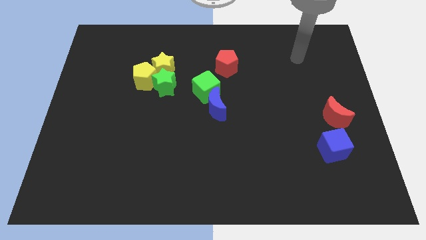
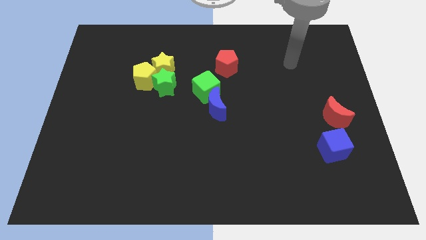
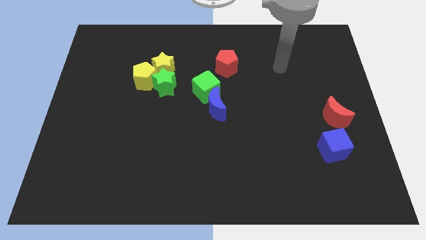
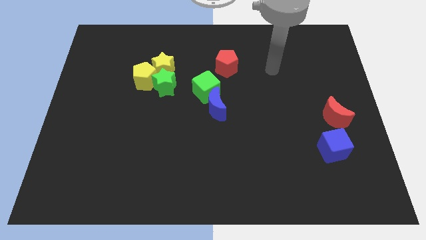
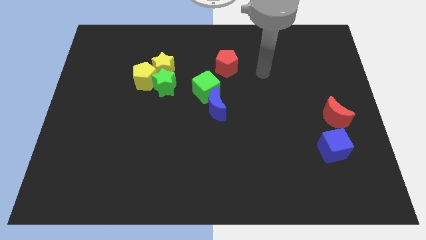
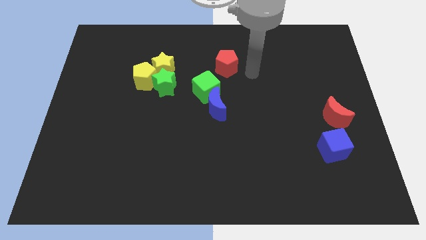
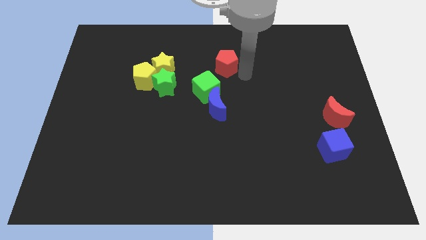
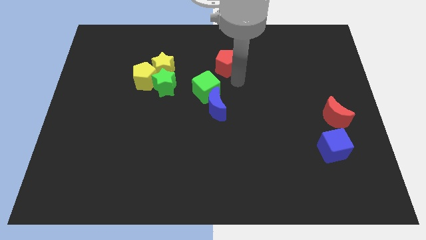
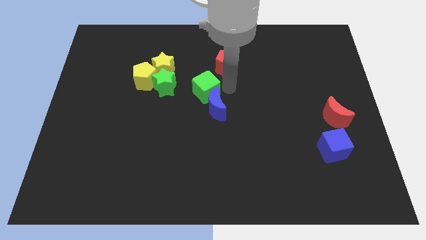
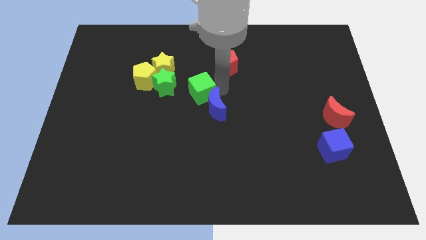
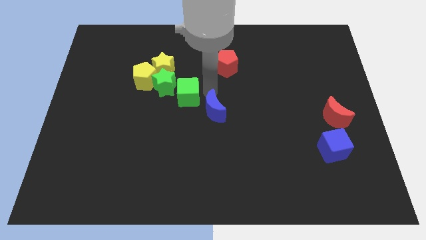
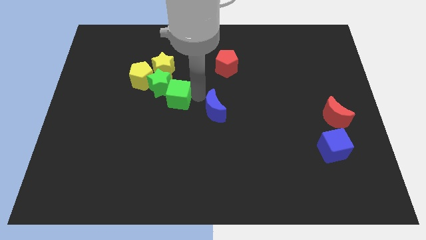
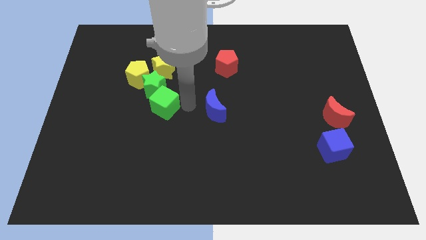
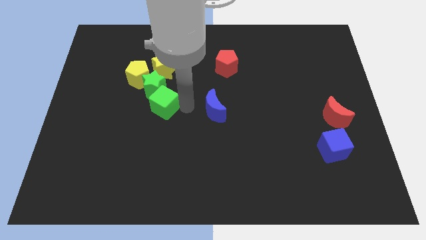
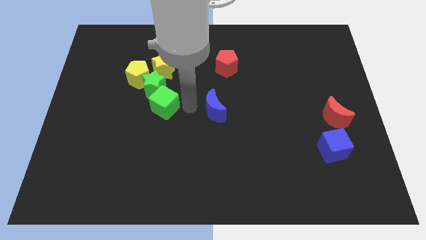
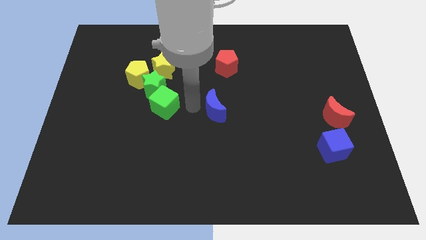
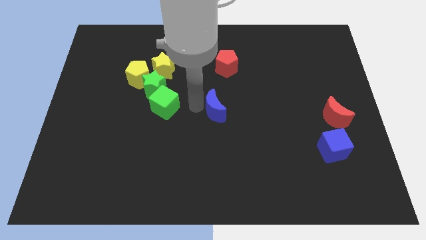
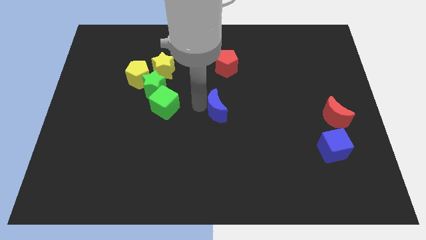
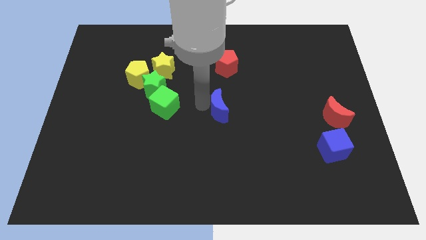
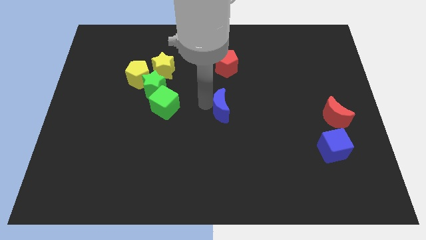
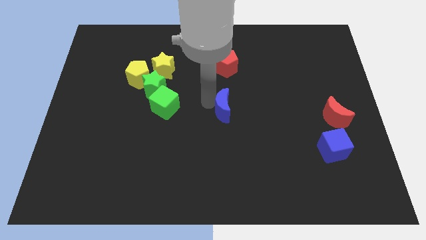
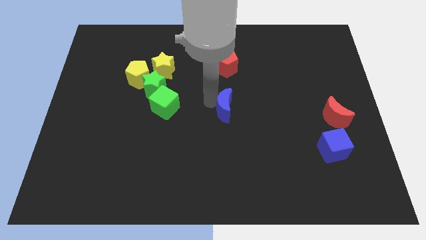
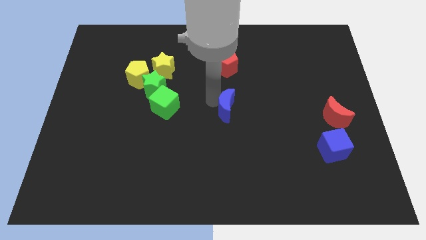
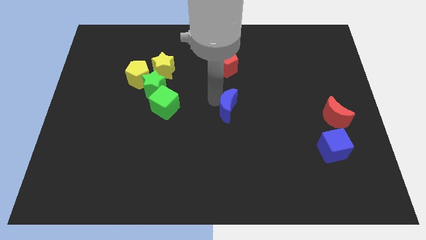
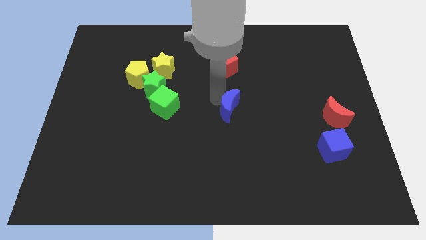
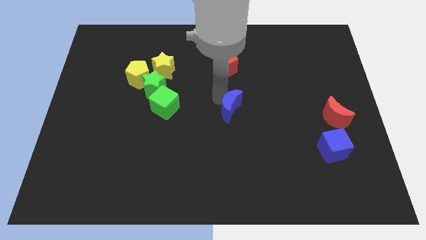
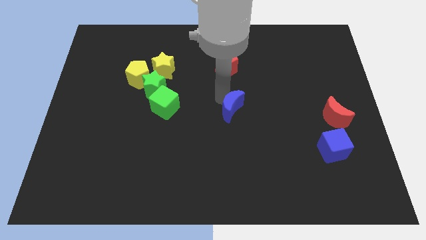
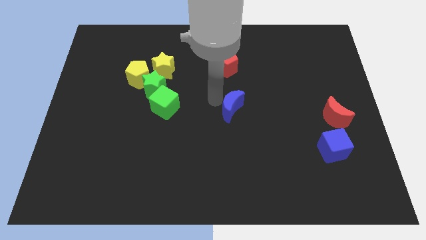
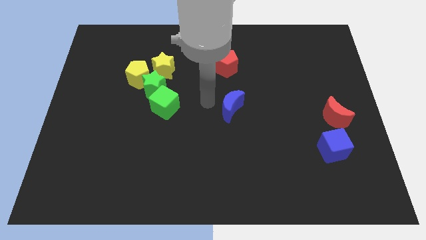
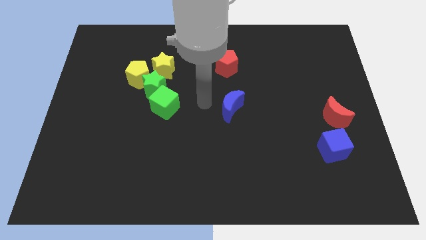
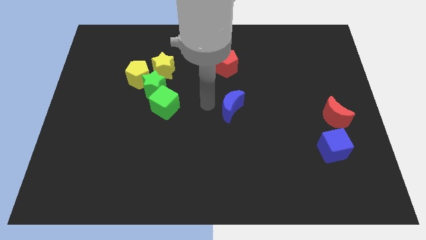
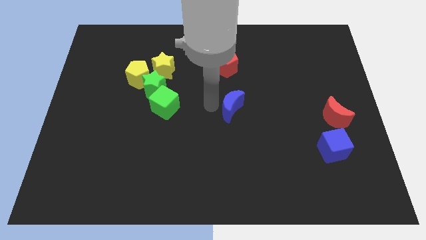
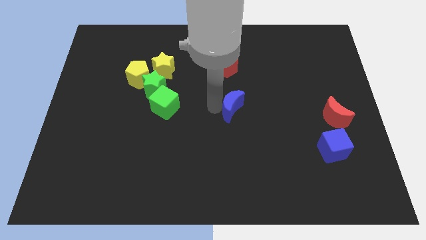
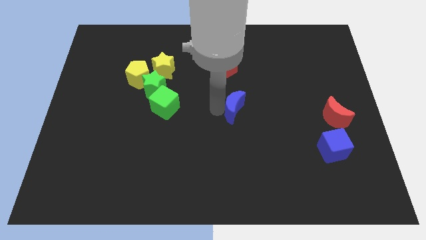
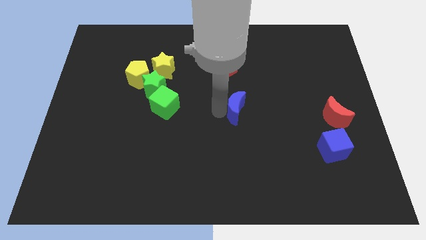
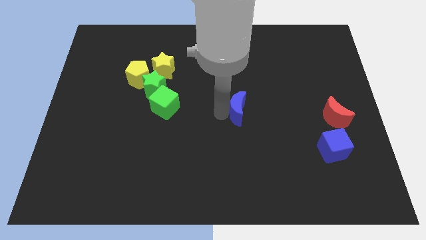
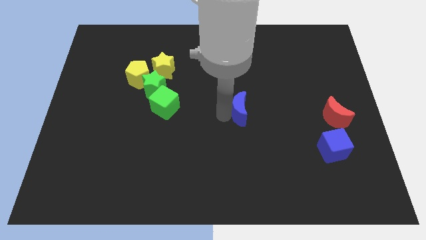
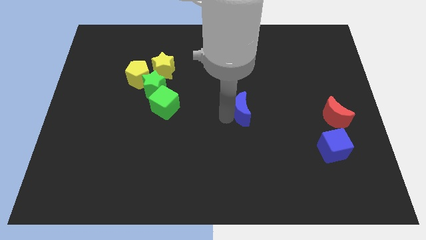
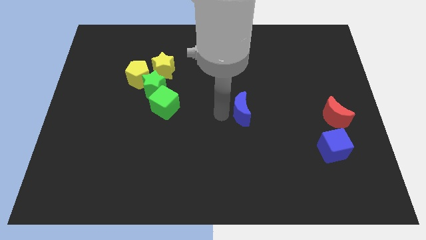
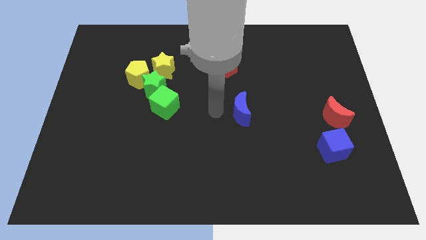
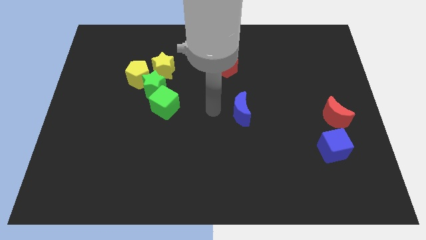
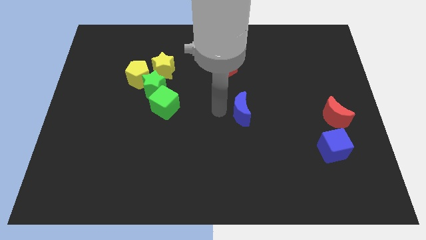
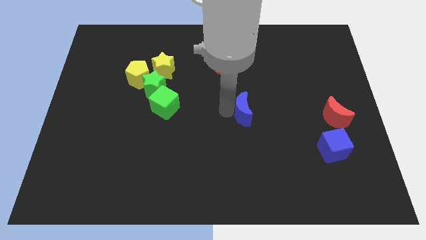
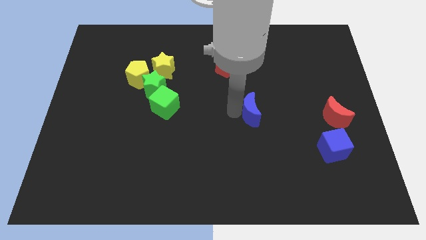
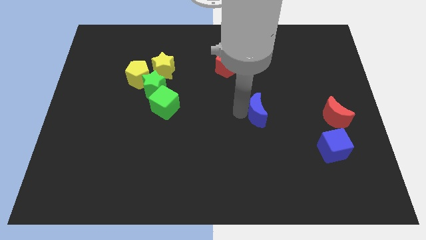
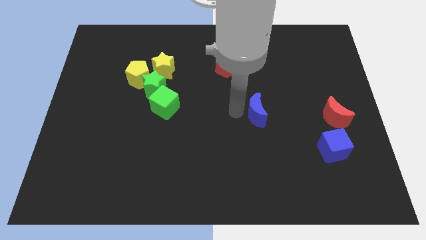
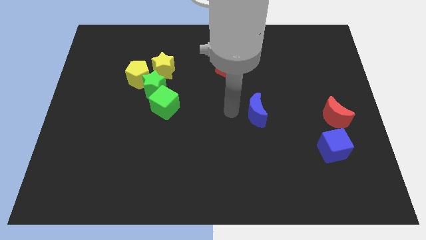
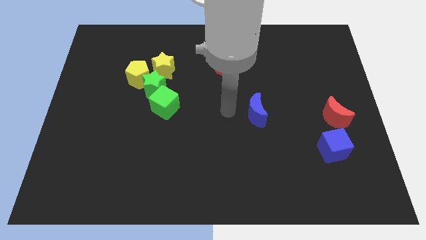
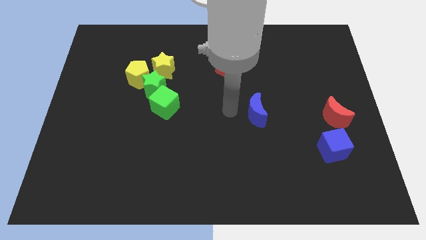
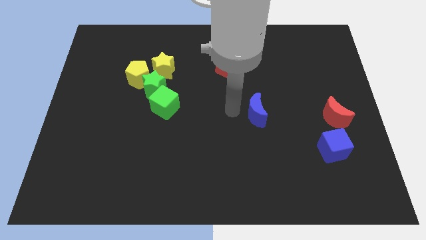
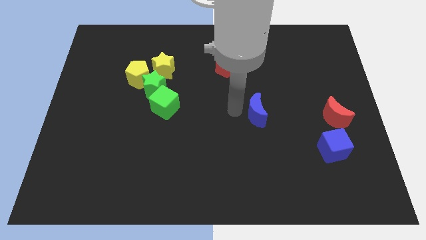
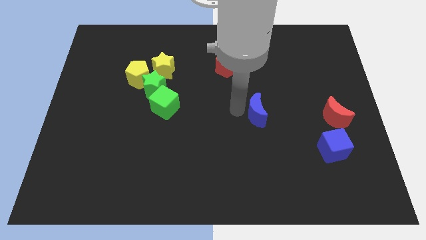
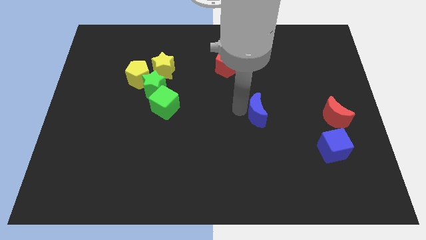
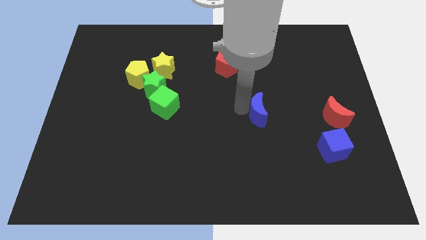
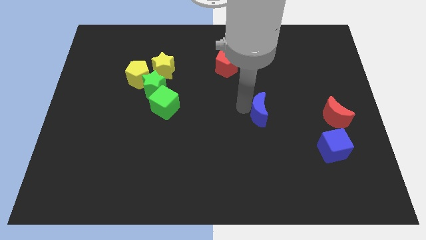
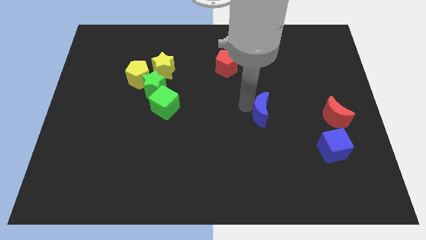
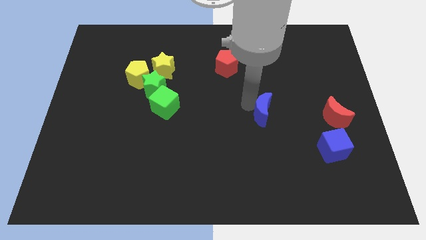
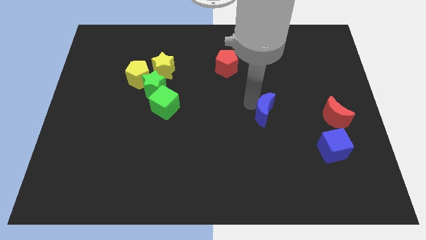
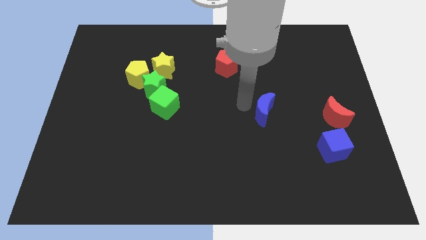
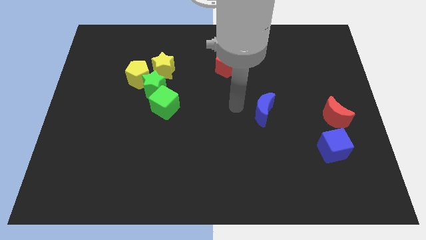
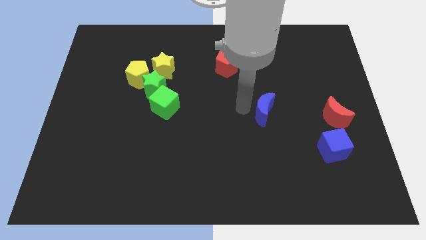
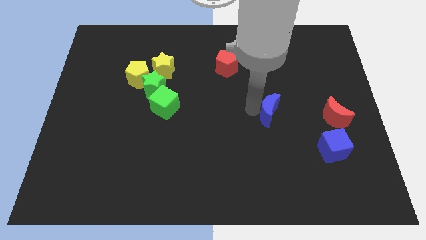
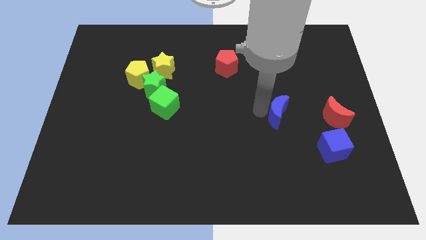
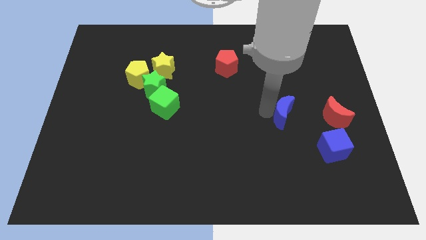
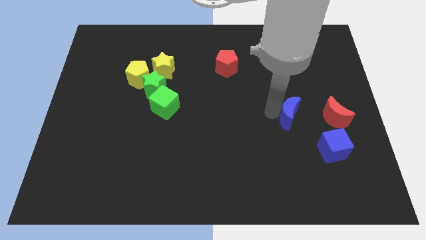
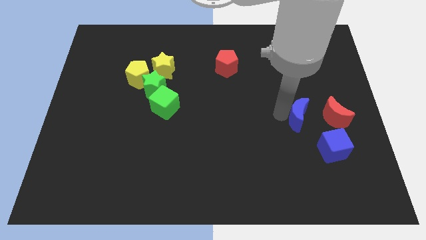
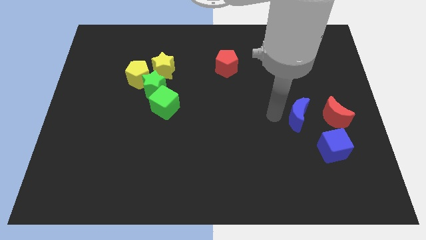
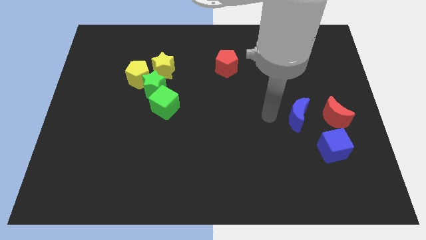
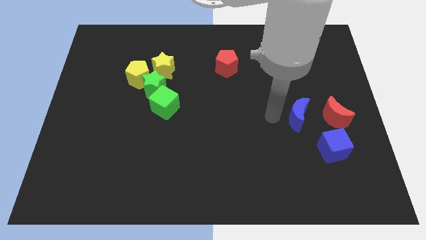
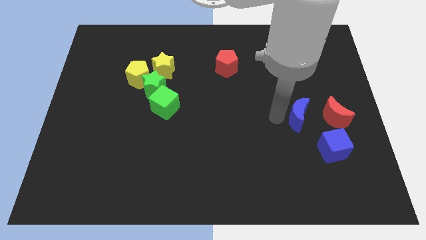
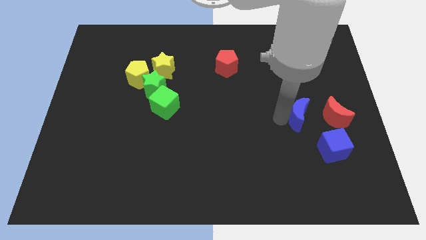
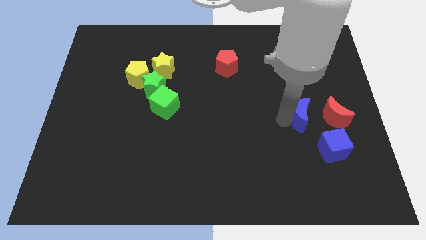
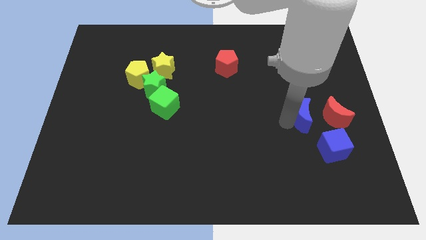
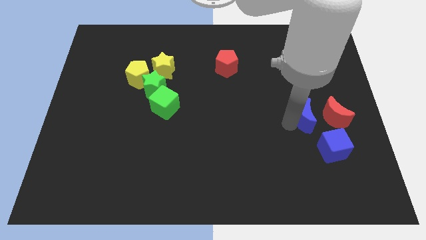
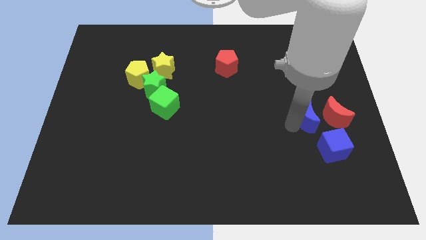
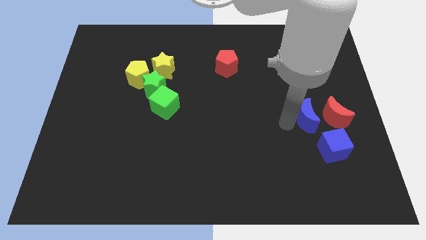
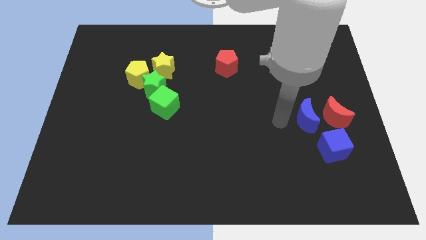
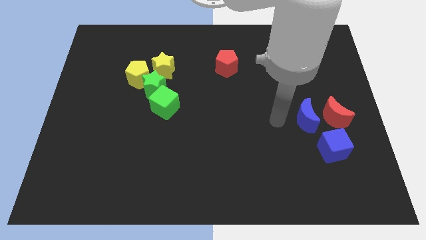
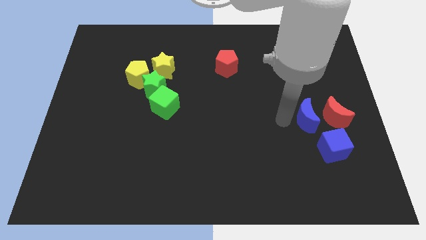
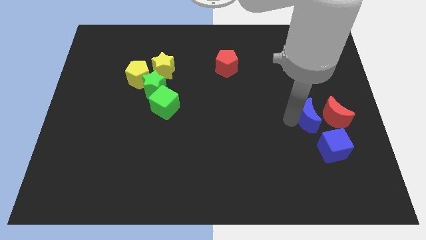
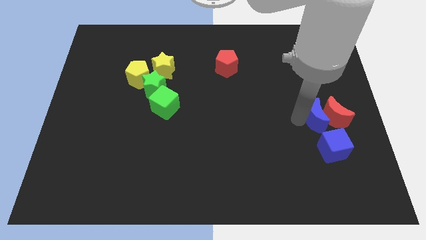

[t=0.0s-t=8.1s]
move the blue moon towards the red moon
